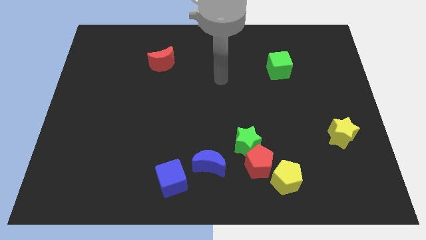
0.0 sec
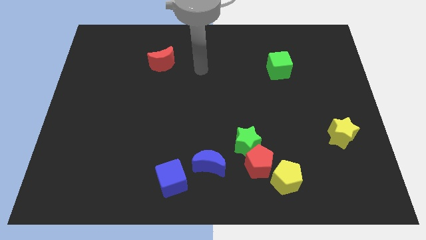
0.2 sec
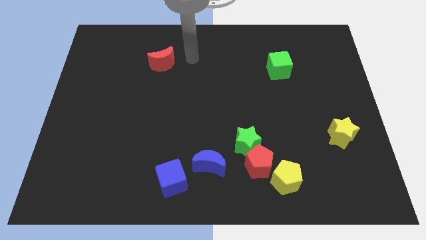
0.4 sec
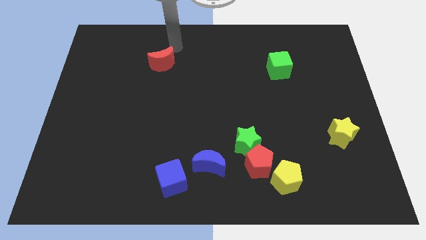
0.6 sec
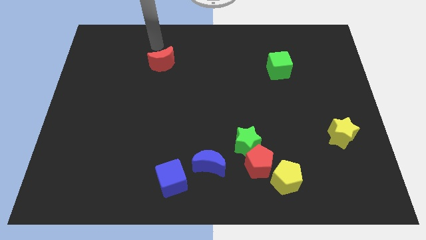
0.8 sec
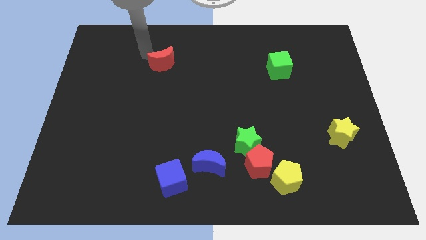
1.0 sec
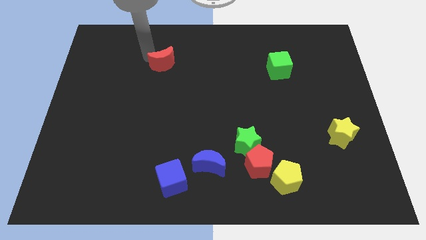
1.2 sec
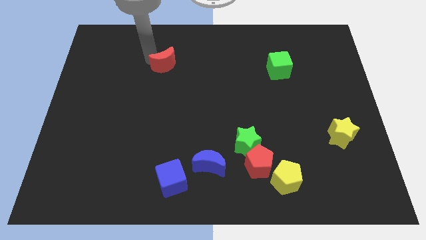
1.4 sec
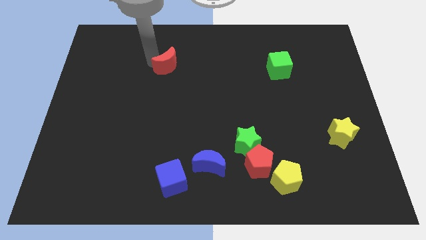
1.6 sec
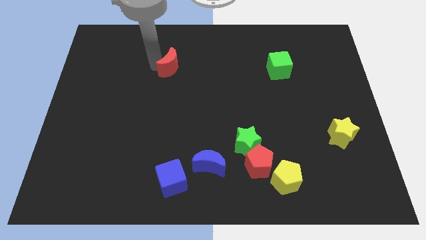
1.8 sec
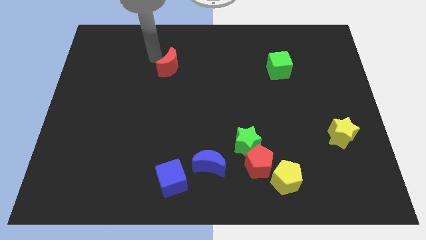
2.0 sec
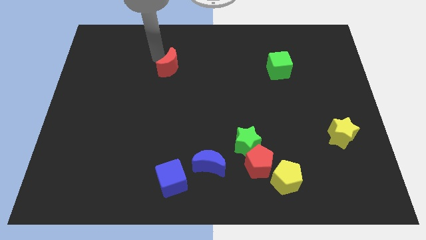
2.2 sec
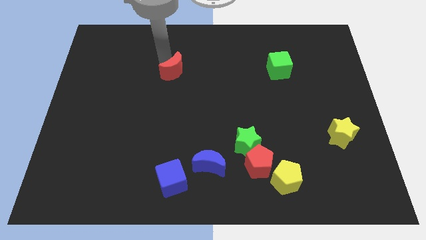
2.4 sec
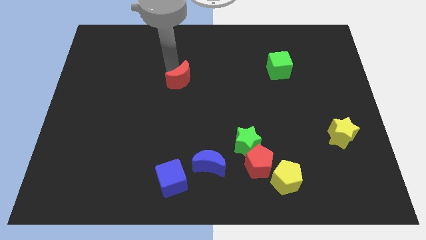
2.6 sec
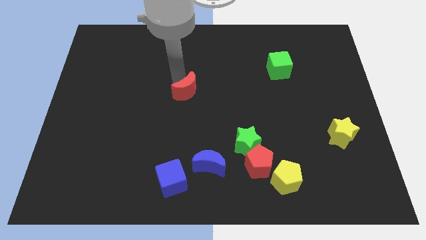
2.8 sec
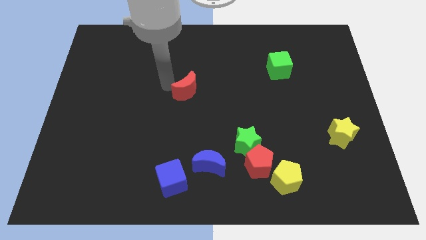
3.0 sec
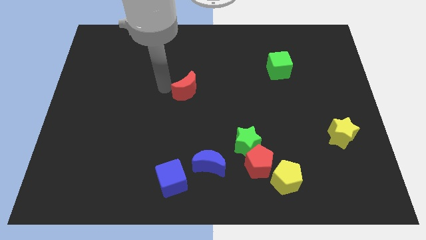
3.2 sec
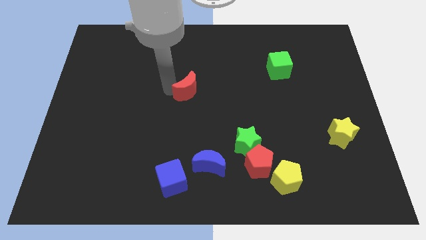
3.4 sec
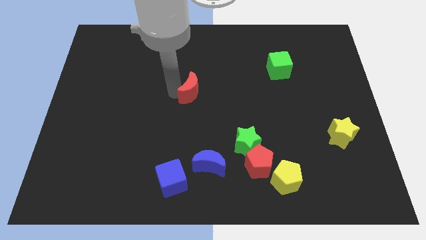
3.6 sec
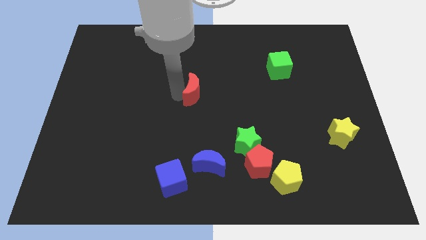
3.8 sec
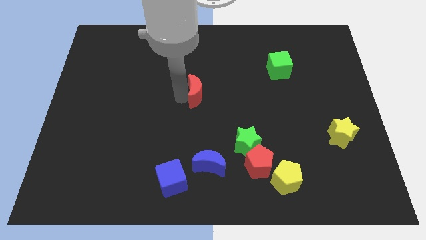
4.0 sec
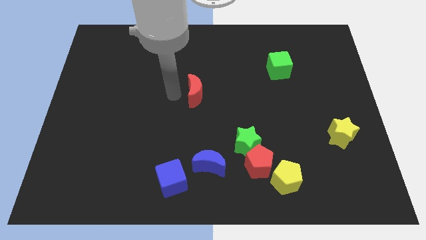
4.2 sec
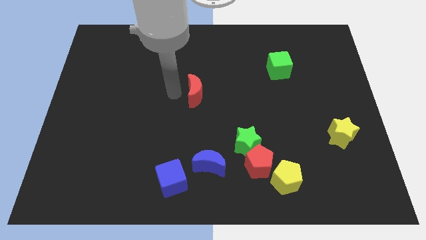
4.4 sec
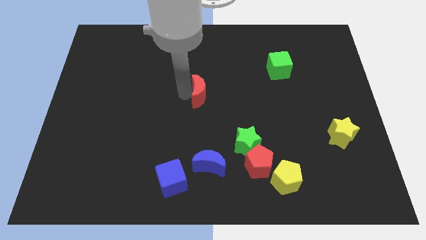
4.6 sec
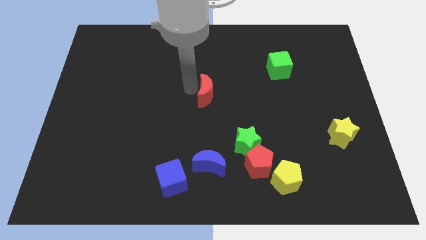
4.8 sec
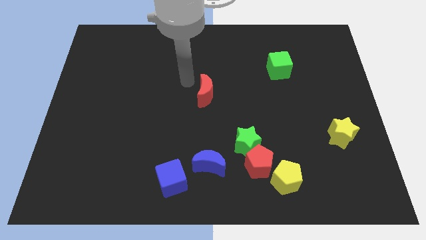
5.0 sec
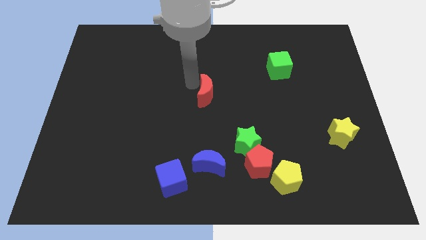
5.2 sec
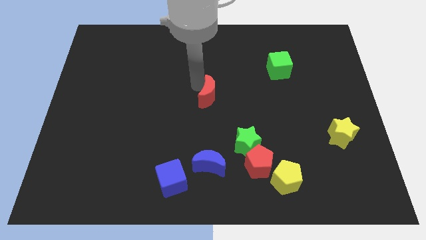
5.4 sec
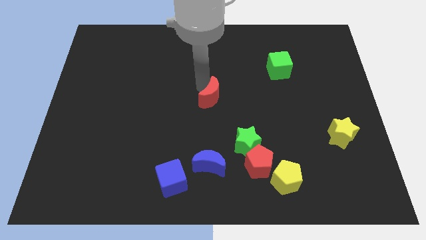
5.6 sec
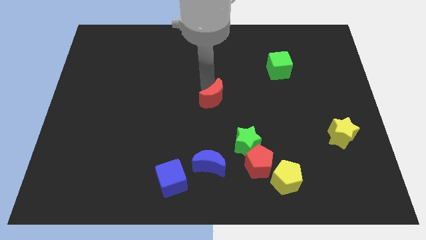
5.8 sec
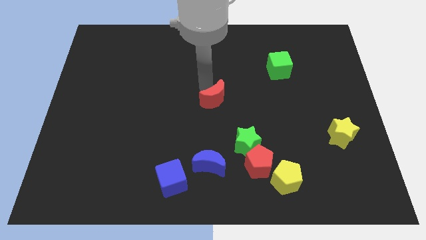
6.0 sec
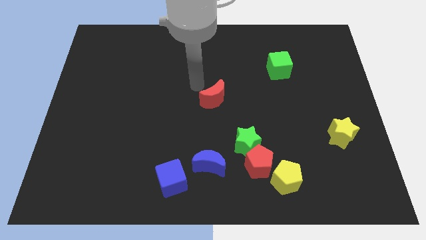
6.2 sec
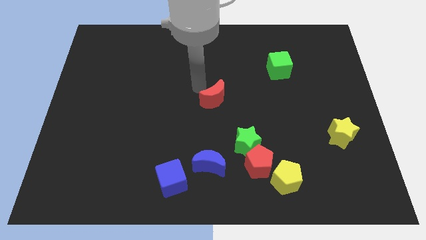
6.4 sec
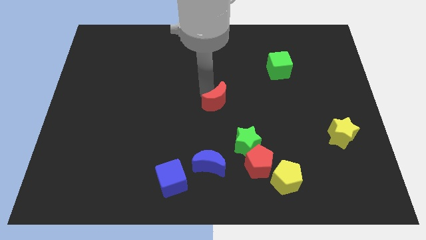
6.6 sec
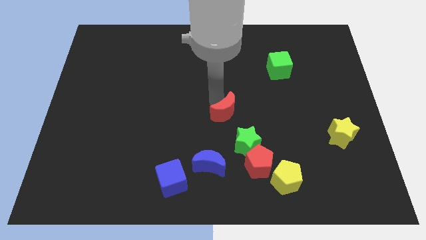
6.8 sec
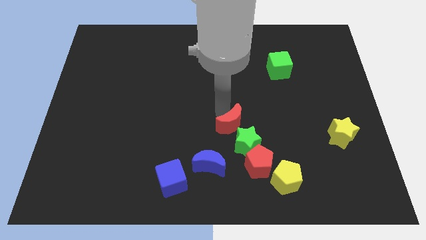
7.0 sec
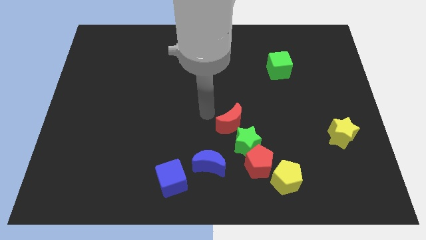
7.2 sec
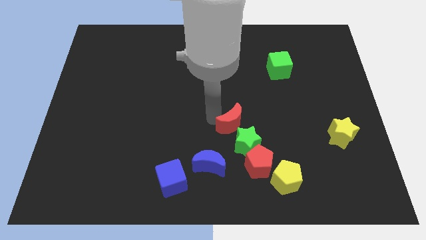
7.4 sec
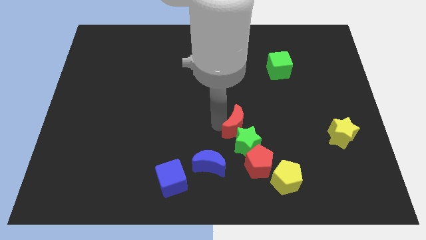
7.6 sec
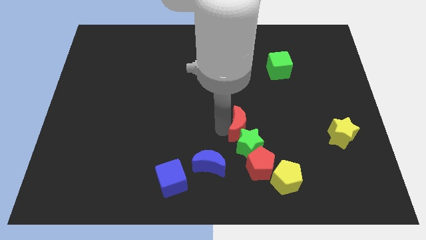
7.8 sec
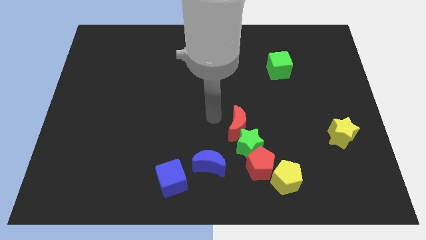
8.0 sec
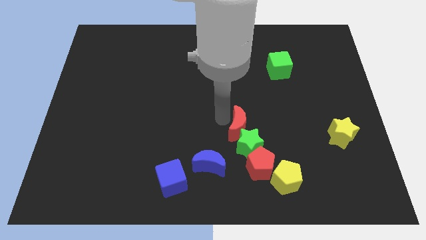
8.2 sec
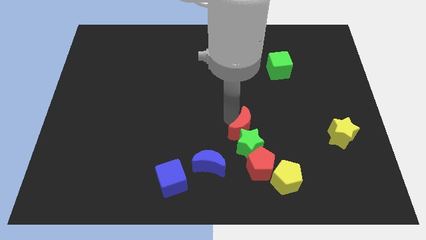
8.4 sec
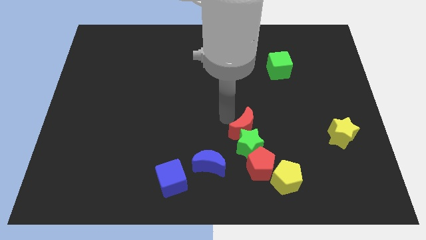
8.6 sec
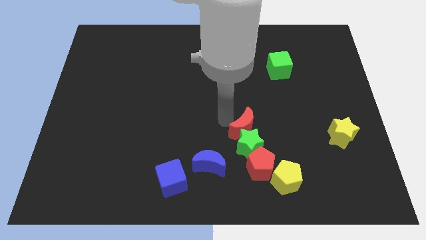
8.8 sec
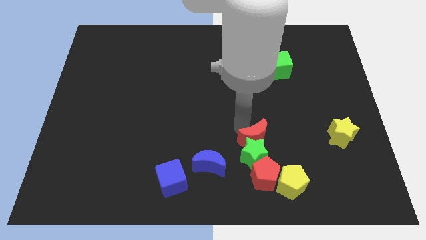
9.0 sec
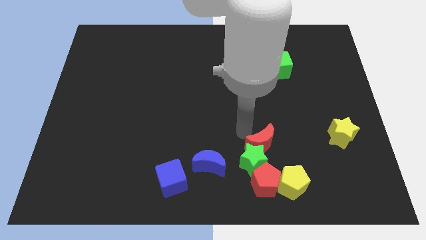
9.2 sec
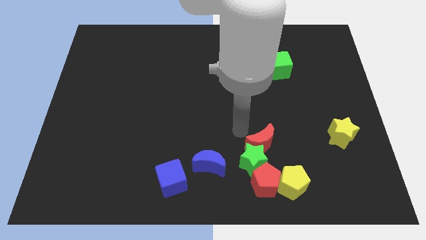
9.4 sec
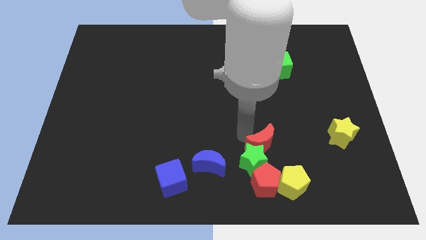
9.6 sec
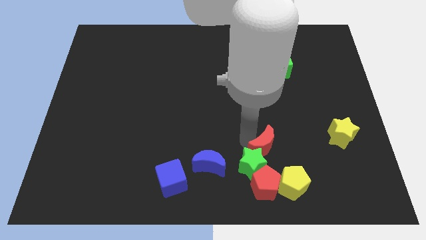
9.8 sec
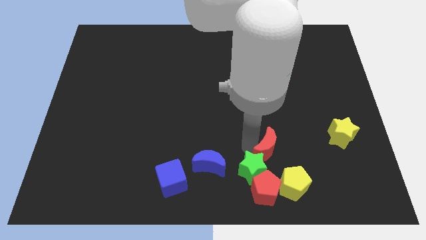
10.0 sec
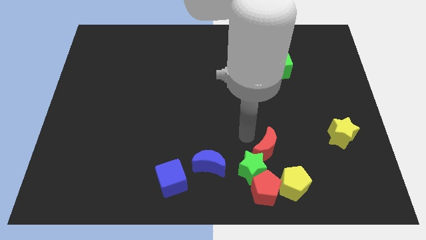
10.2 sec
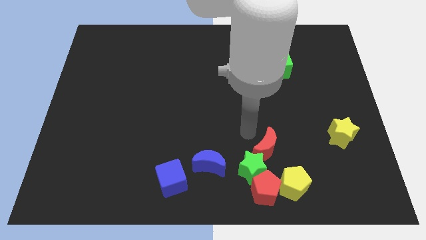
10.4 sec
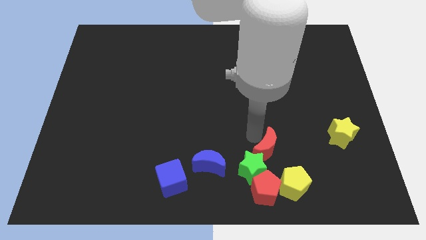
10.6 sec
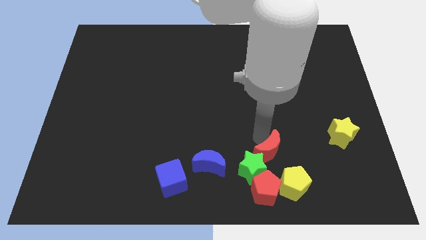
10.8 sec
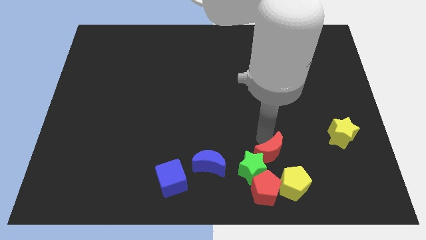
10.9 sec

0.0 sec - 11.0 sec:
slide the red moon diagonally up and to the right of the red pentagon

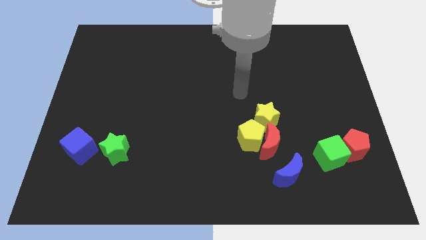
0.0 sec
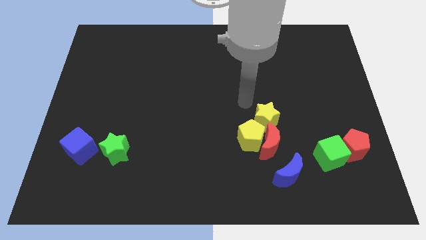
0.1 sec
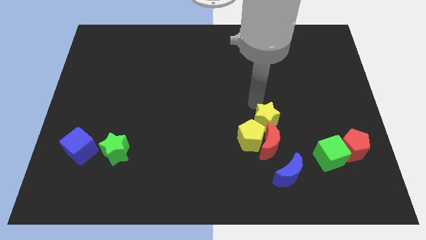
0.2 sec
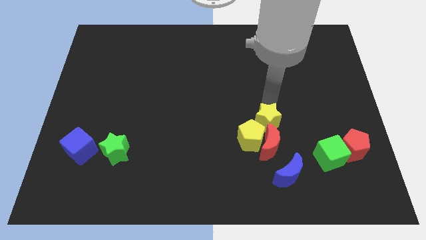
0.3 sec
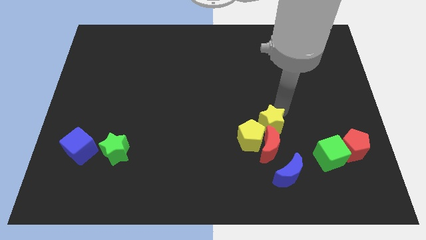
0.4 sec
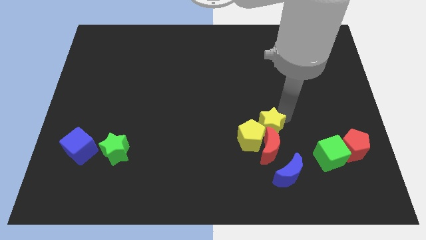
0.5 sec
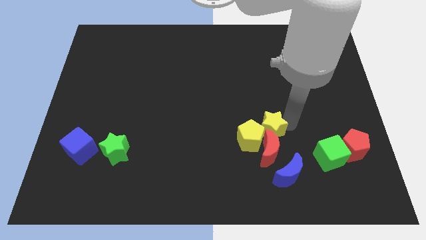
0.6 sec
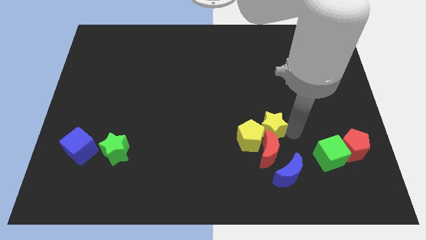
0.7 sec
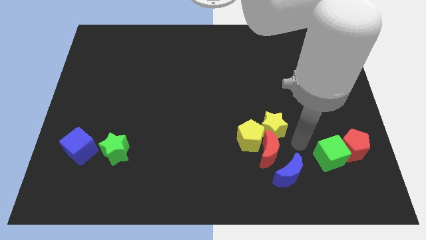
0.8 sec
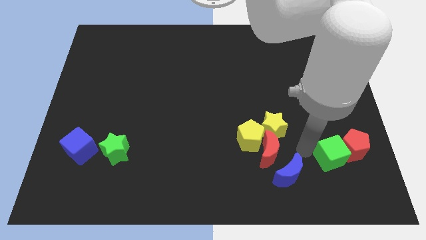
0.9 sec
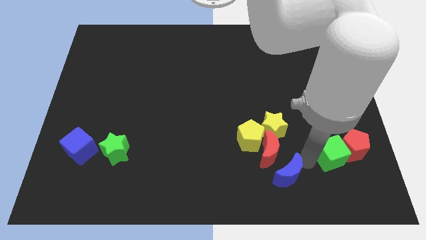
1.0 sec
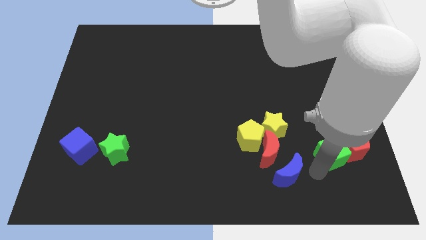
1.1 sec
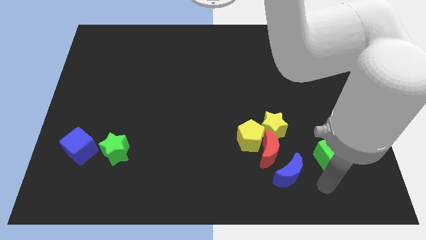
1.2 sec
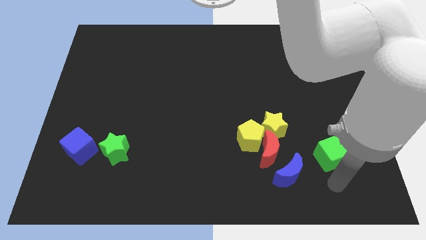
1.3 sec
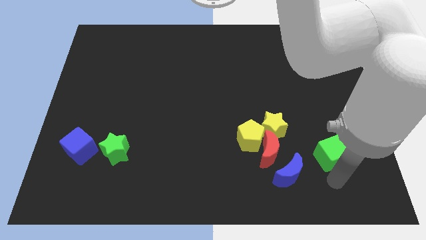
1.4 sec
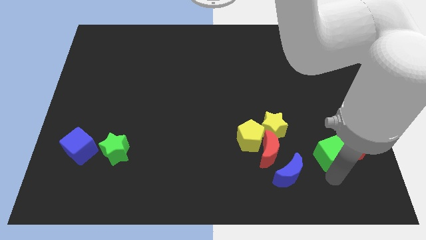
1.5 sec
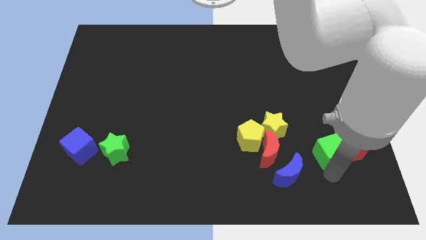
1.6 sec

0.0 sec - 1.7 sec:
push the green cube to the top left of the red pentagon

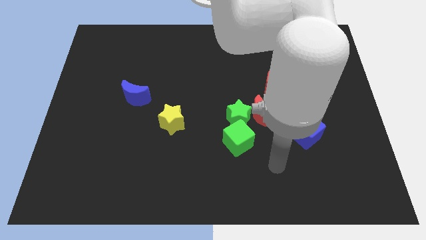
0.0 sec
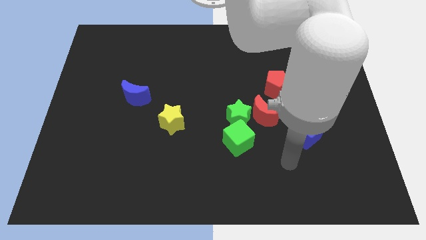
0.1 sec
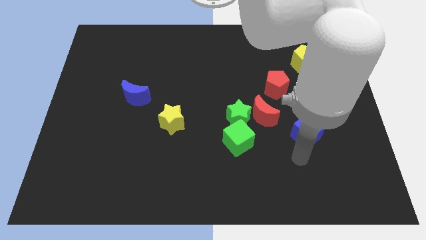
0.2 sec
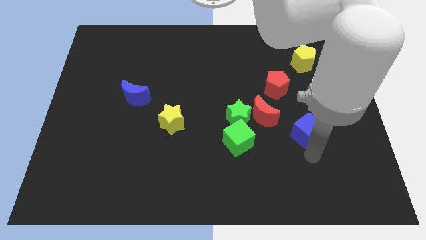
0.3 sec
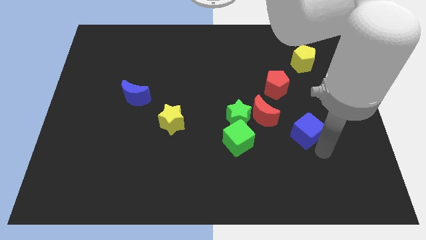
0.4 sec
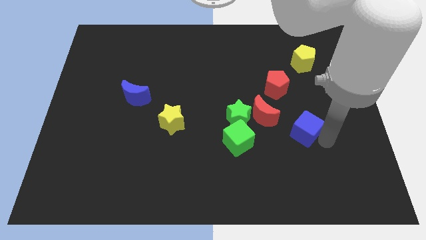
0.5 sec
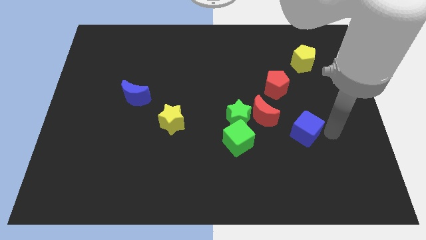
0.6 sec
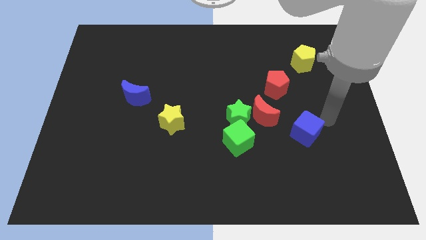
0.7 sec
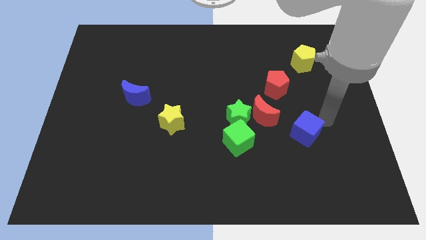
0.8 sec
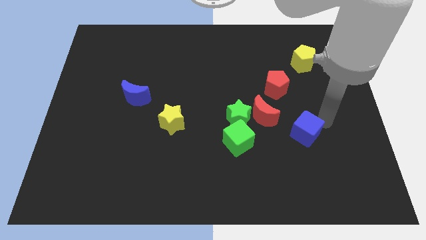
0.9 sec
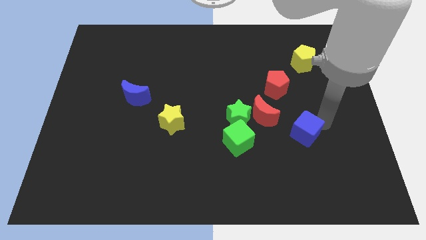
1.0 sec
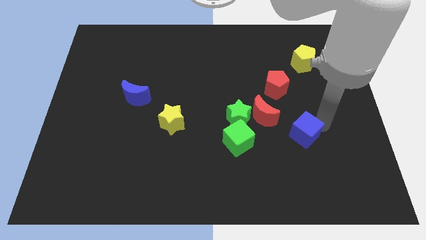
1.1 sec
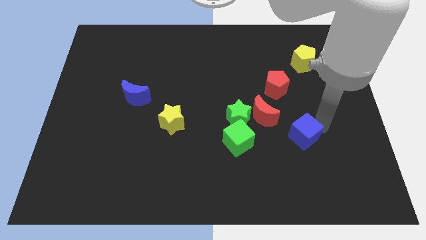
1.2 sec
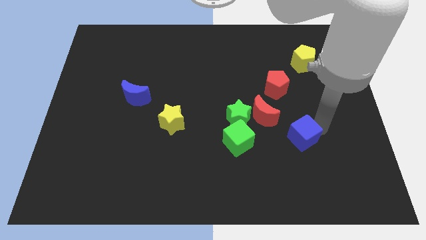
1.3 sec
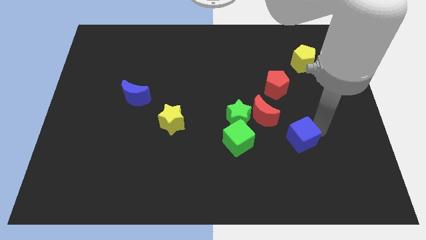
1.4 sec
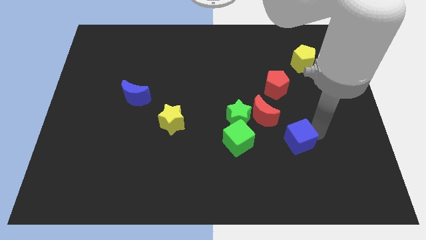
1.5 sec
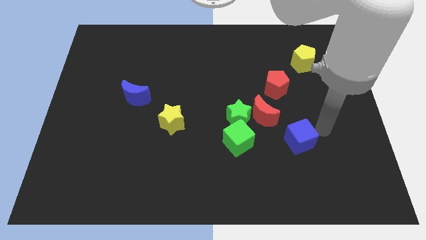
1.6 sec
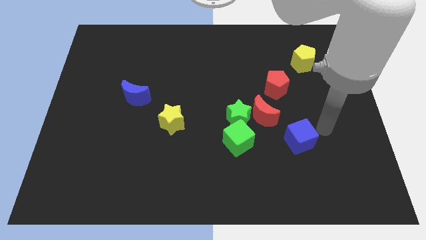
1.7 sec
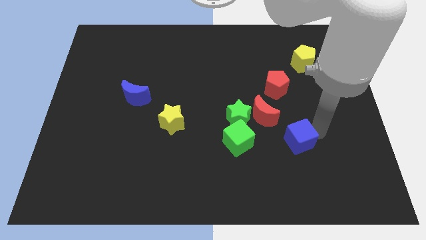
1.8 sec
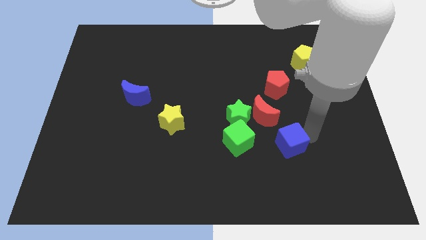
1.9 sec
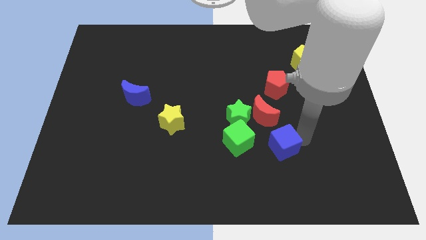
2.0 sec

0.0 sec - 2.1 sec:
push the blue cube to the bottom side of the red moon
